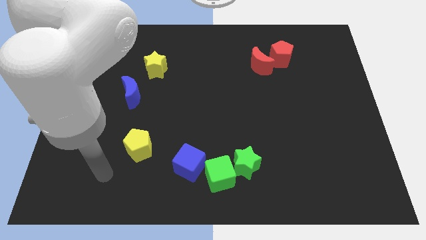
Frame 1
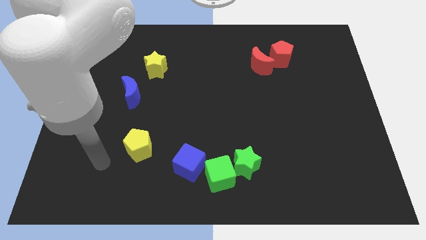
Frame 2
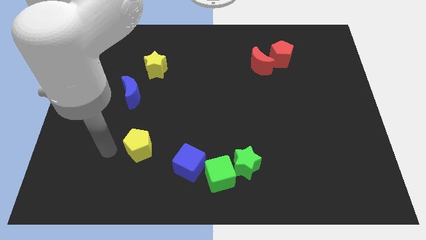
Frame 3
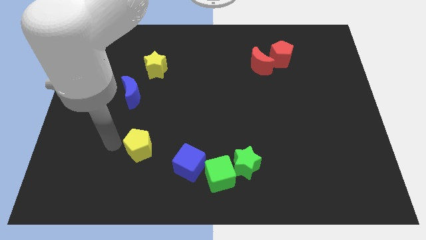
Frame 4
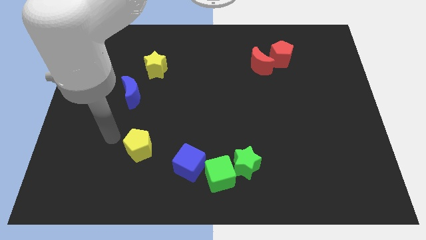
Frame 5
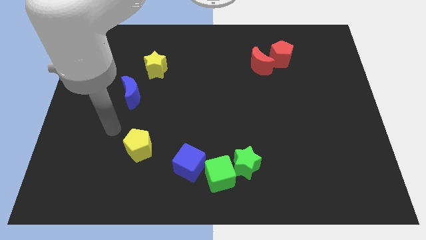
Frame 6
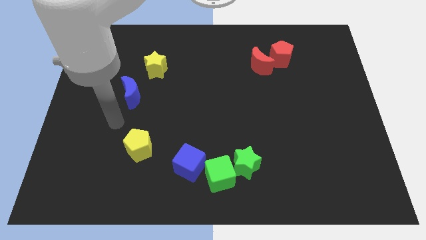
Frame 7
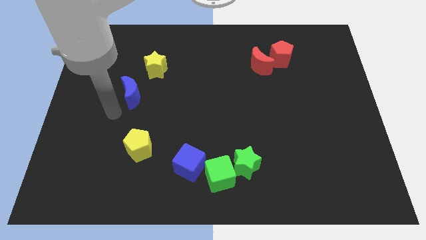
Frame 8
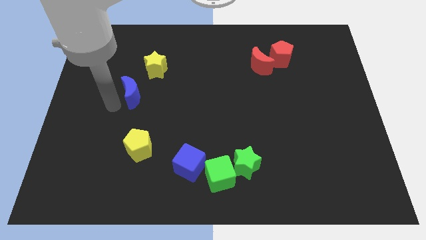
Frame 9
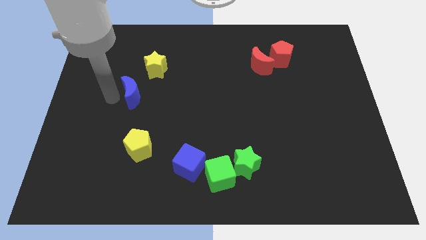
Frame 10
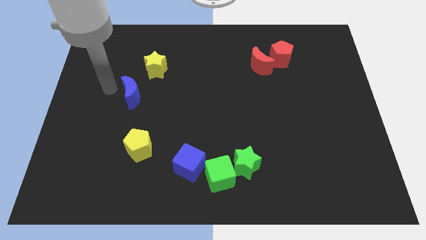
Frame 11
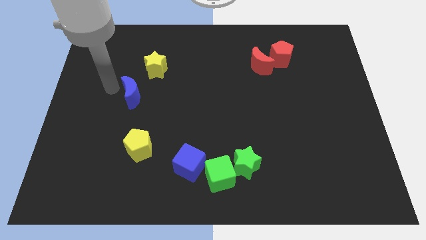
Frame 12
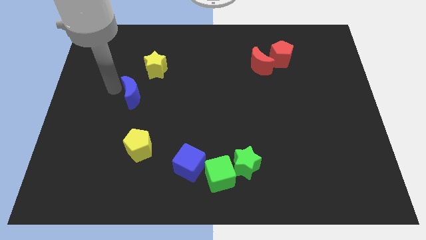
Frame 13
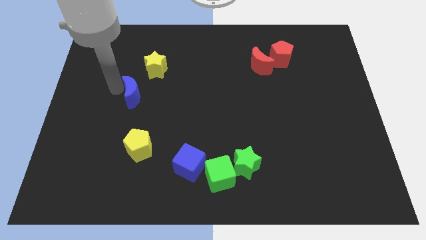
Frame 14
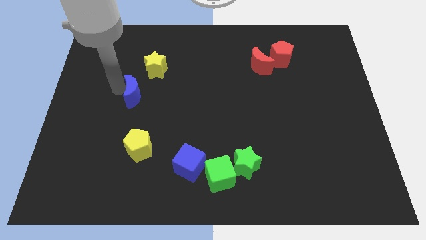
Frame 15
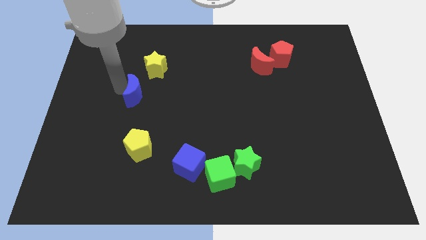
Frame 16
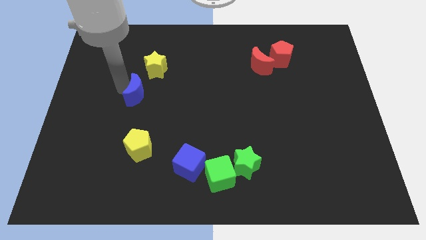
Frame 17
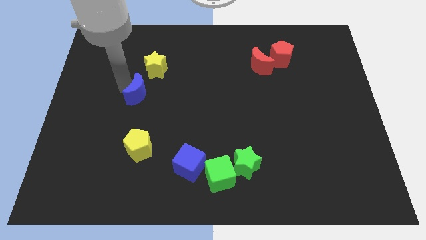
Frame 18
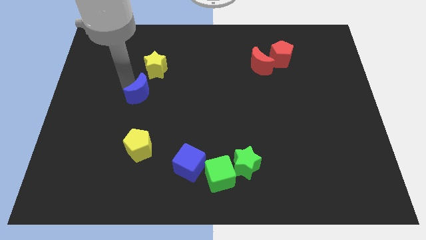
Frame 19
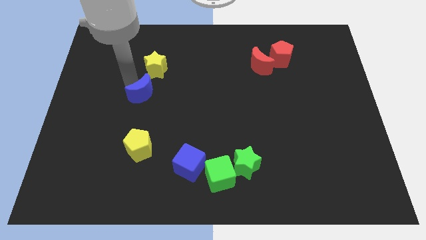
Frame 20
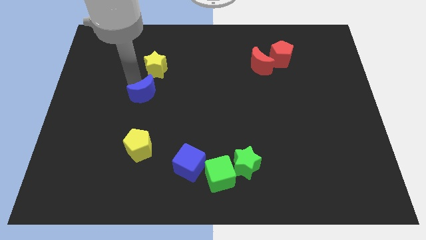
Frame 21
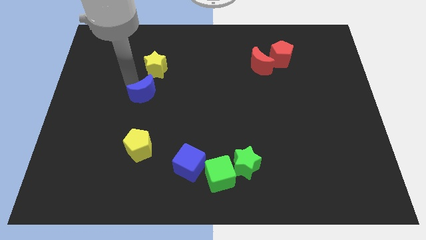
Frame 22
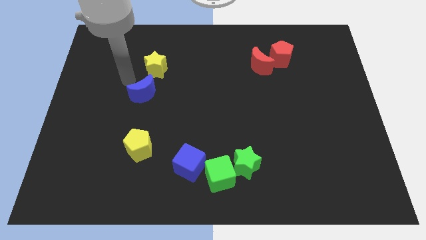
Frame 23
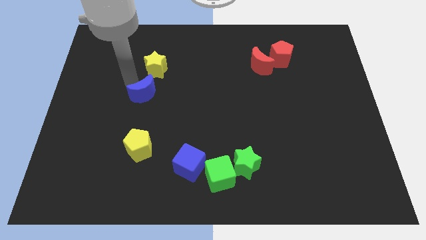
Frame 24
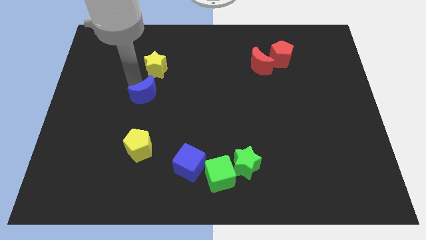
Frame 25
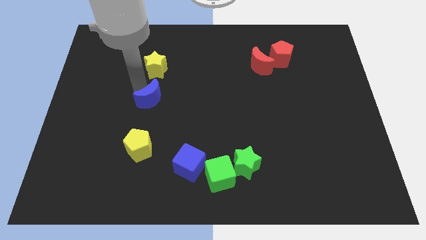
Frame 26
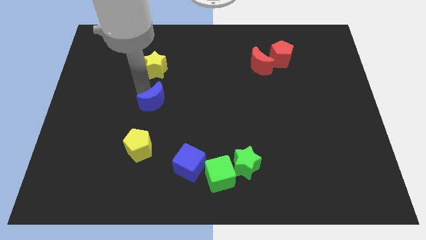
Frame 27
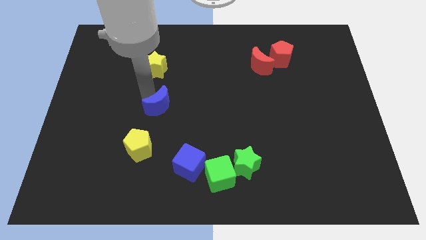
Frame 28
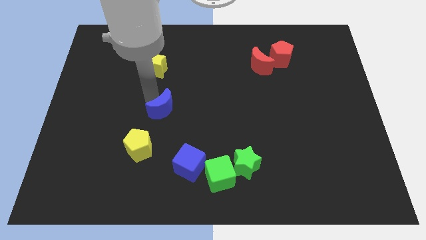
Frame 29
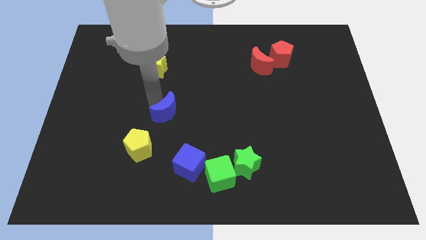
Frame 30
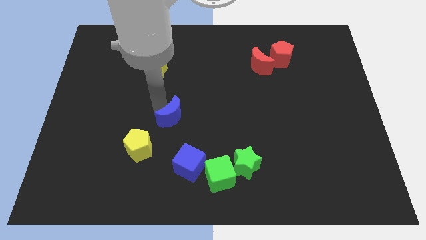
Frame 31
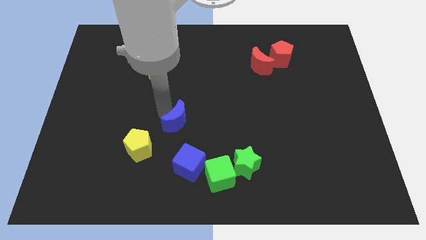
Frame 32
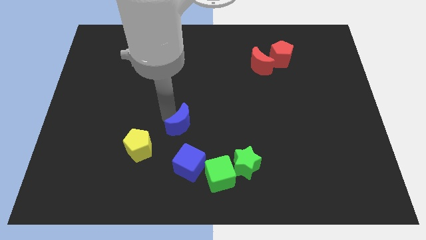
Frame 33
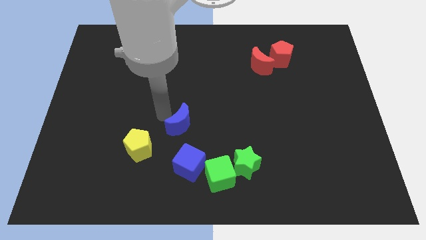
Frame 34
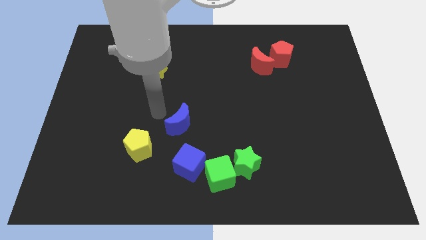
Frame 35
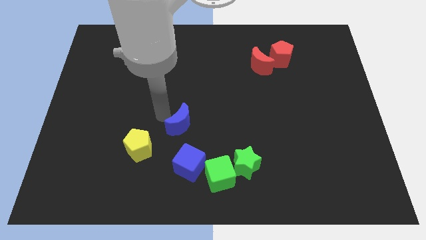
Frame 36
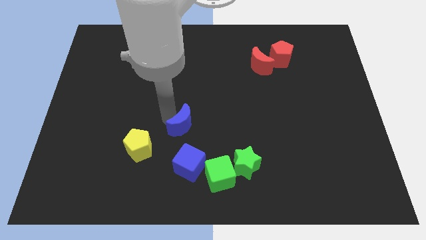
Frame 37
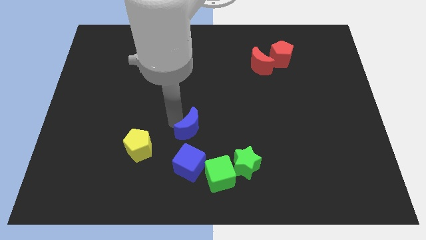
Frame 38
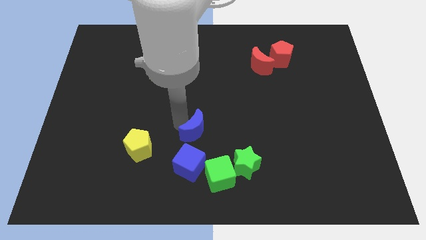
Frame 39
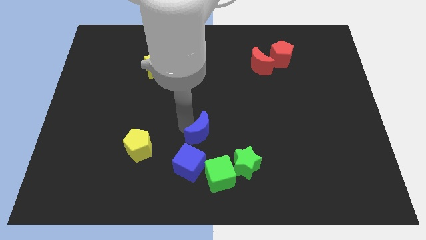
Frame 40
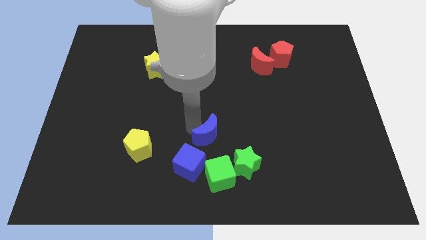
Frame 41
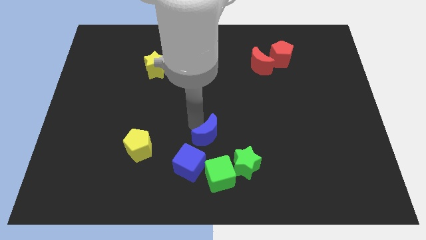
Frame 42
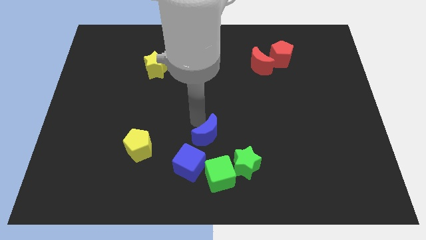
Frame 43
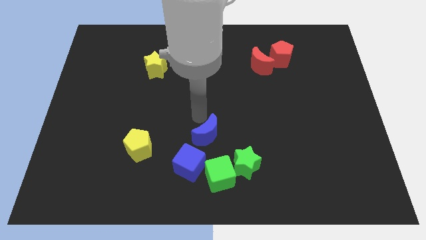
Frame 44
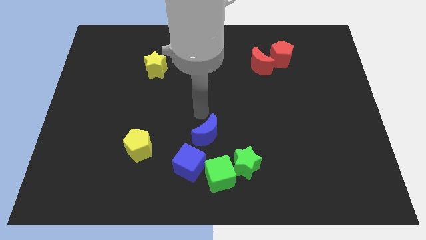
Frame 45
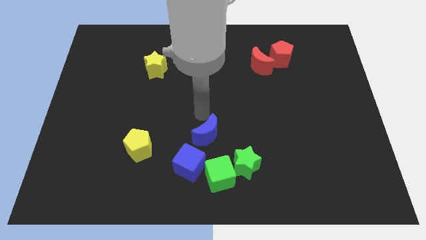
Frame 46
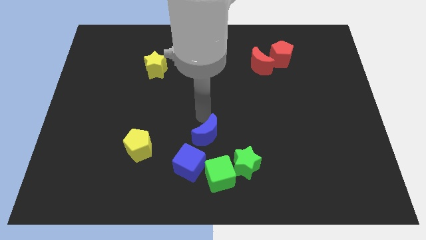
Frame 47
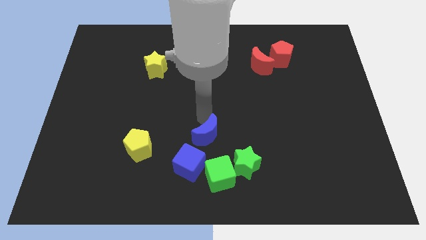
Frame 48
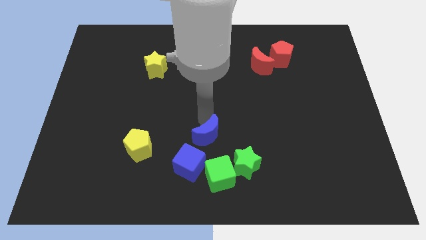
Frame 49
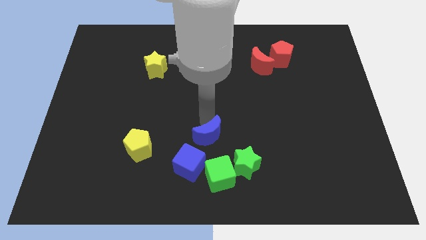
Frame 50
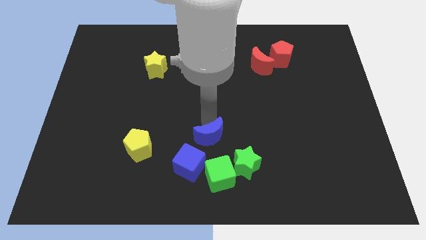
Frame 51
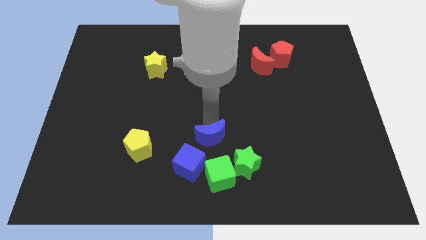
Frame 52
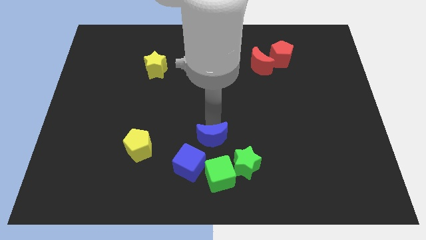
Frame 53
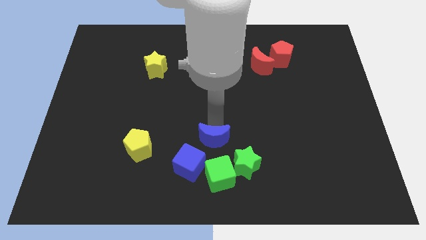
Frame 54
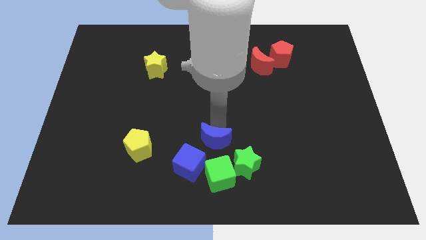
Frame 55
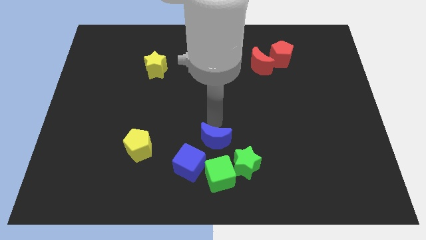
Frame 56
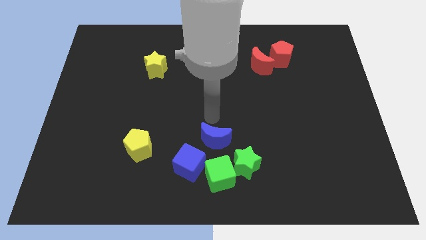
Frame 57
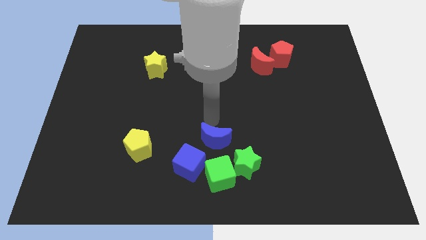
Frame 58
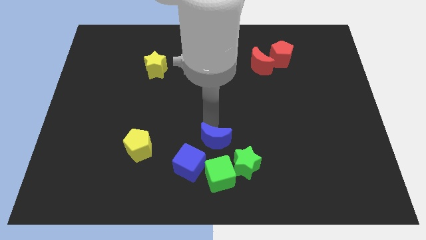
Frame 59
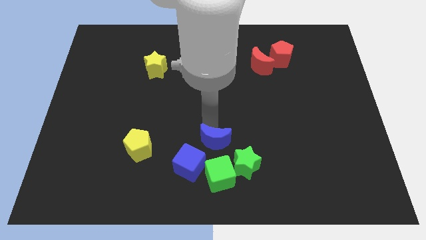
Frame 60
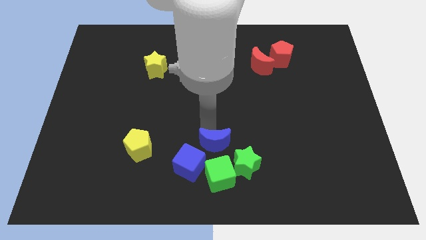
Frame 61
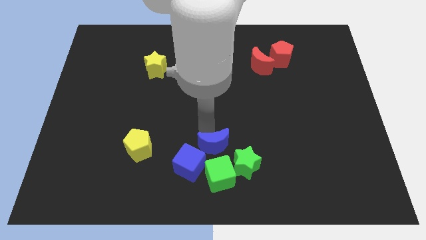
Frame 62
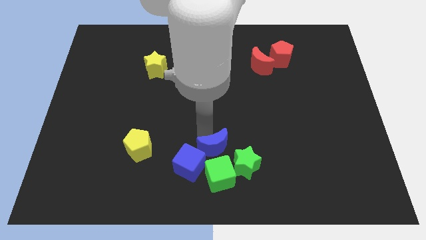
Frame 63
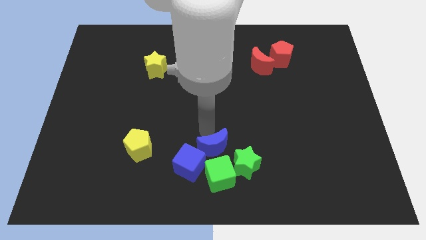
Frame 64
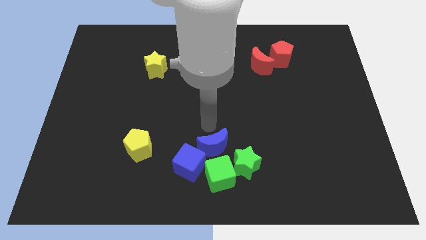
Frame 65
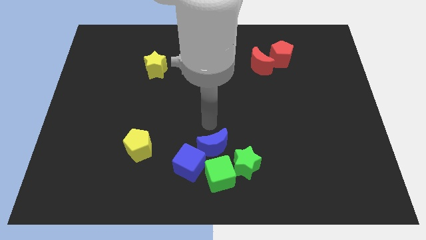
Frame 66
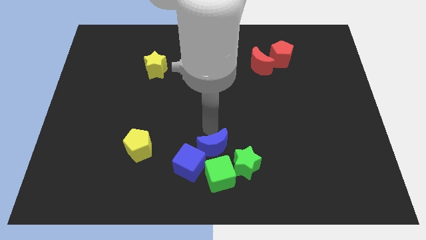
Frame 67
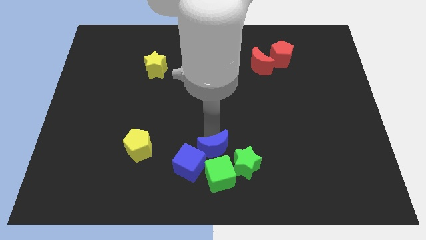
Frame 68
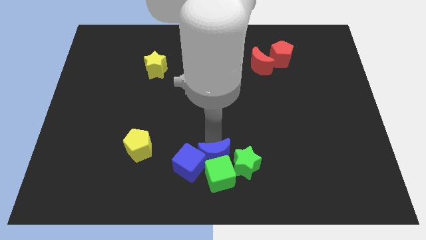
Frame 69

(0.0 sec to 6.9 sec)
push the blue moon to the green cube

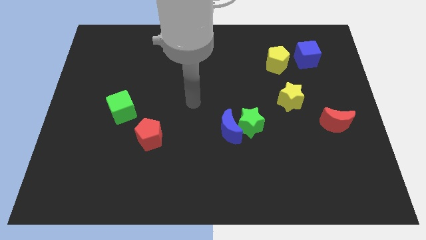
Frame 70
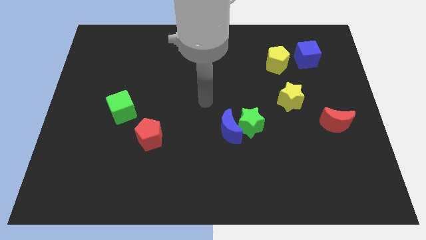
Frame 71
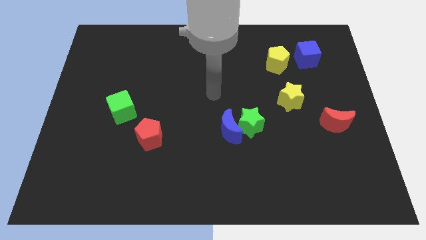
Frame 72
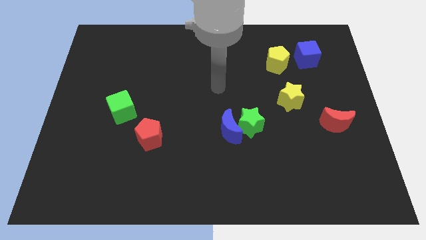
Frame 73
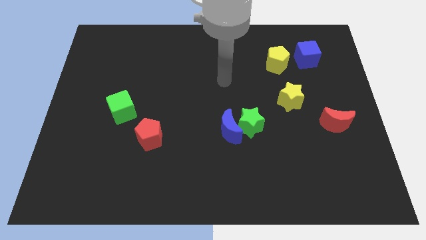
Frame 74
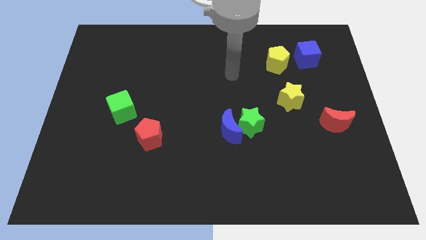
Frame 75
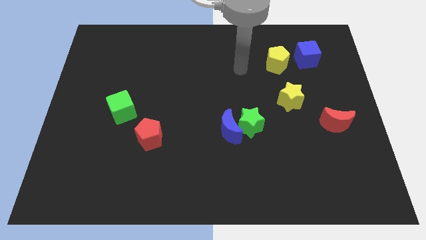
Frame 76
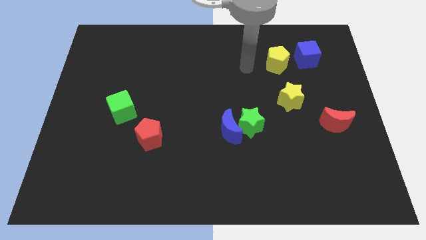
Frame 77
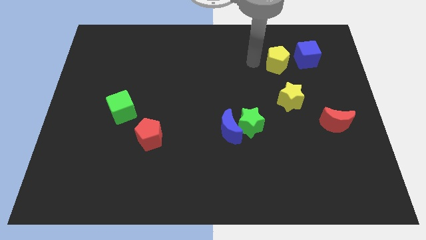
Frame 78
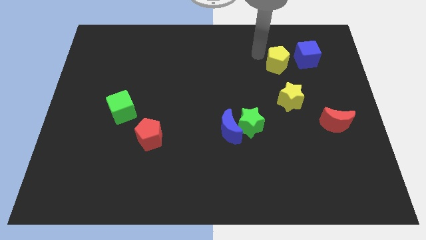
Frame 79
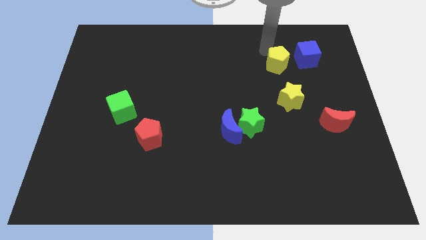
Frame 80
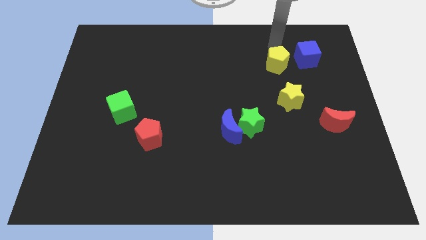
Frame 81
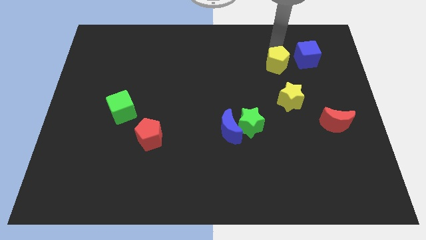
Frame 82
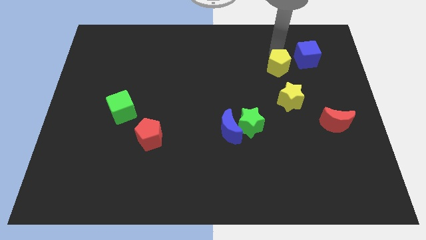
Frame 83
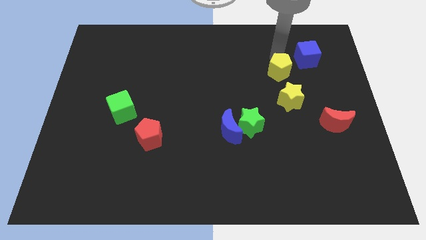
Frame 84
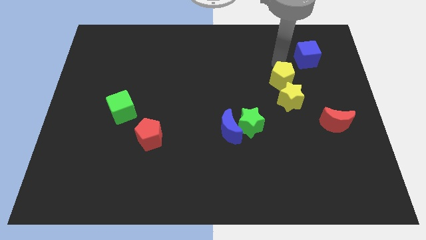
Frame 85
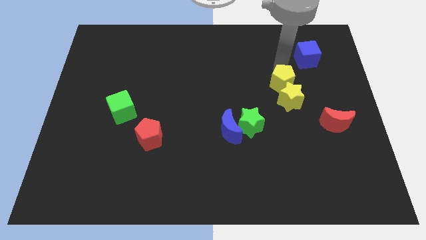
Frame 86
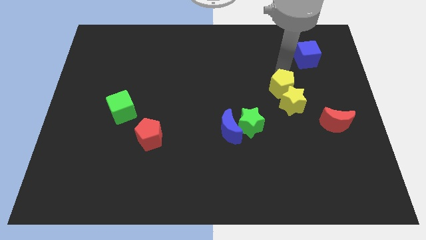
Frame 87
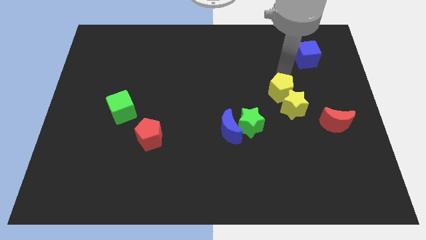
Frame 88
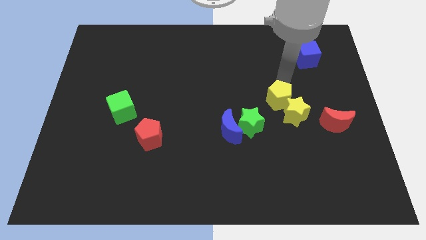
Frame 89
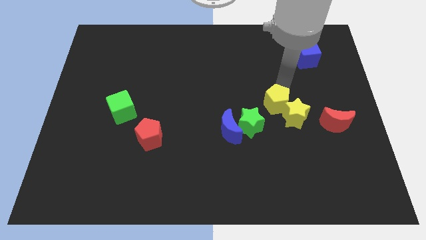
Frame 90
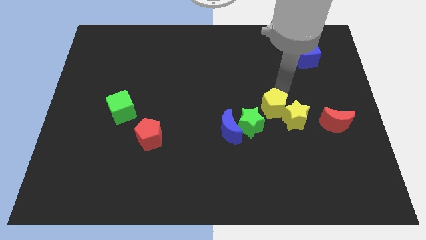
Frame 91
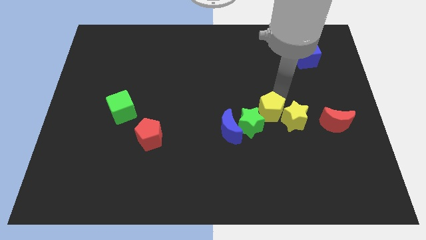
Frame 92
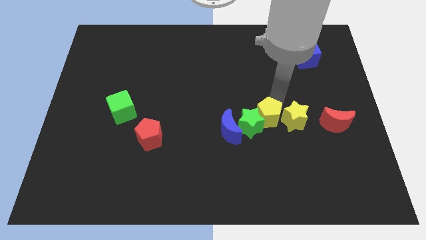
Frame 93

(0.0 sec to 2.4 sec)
move the yellow pentagon next to the green star
